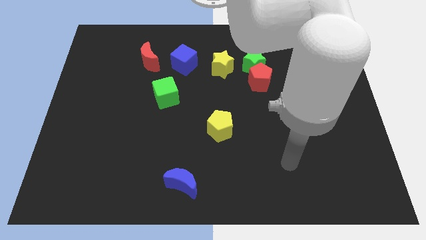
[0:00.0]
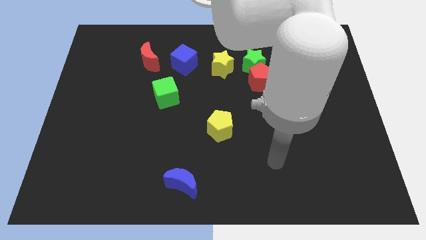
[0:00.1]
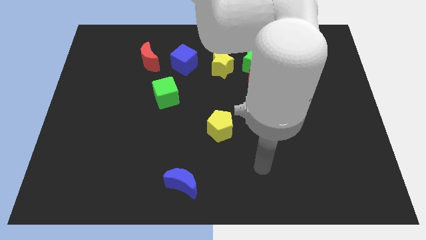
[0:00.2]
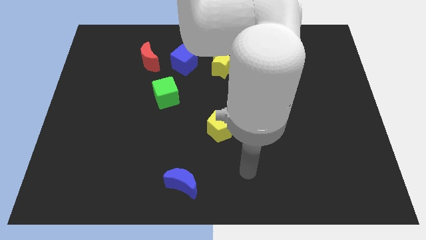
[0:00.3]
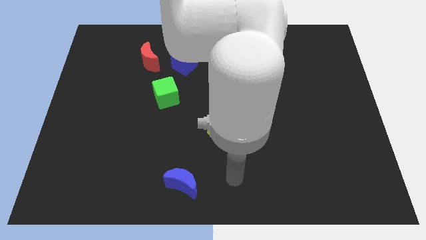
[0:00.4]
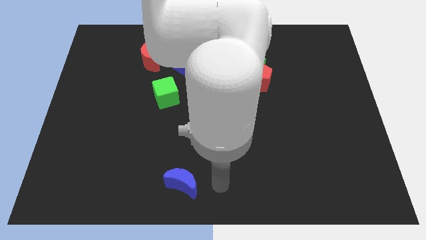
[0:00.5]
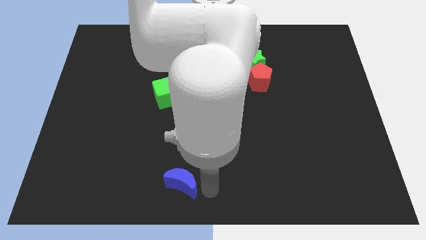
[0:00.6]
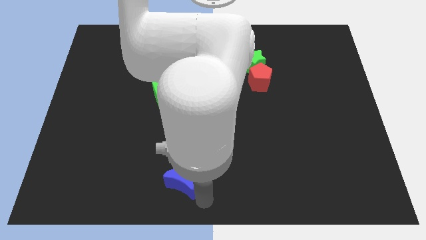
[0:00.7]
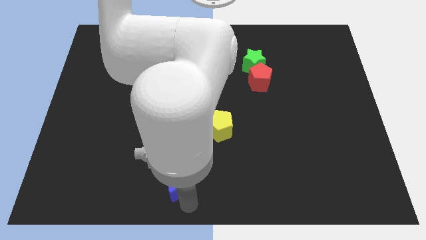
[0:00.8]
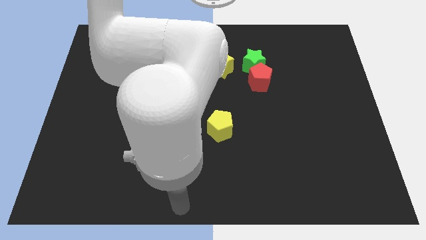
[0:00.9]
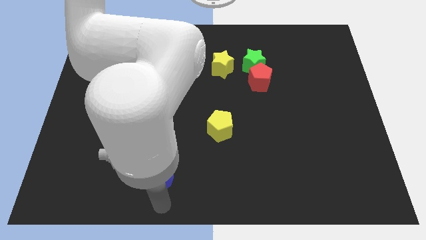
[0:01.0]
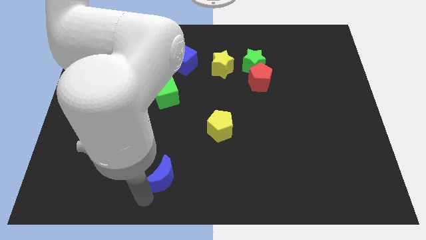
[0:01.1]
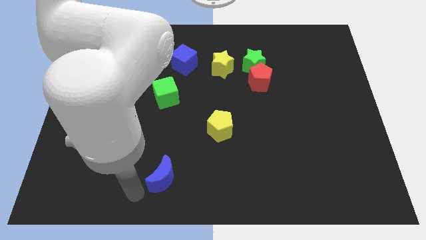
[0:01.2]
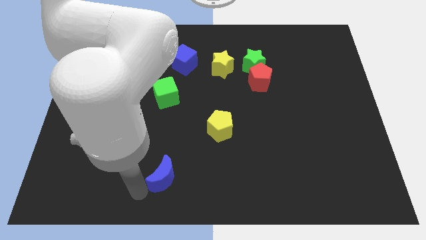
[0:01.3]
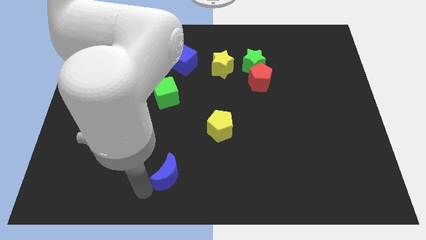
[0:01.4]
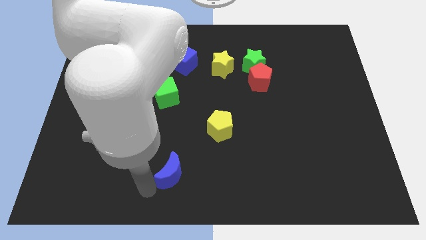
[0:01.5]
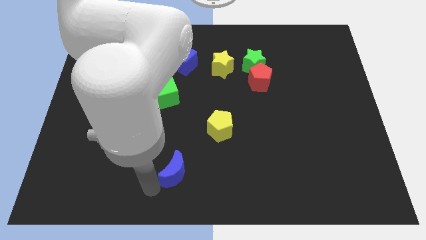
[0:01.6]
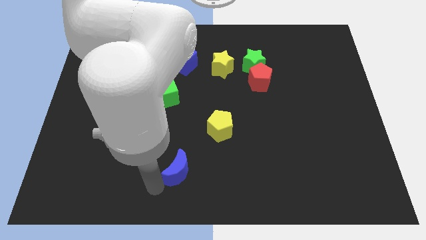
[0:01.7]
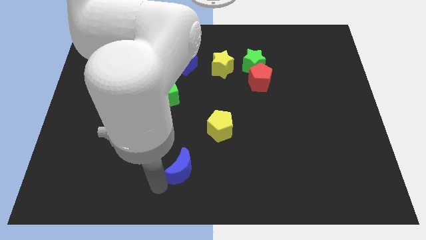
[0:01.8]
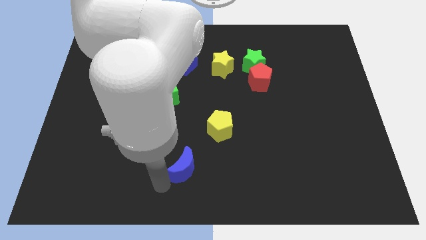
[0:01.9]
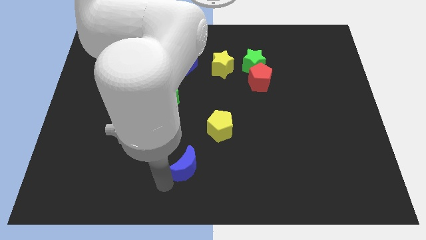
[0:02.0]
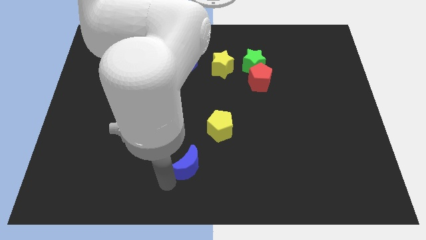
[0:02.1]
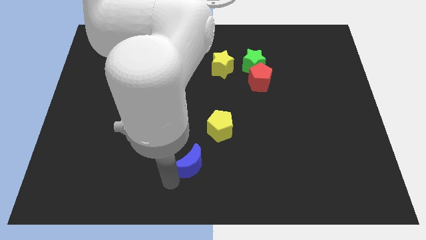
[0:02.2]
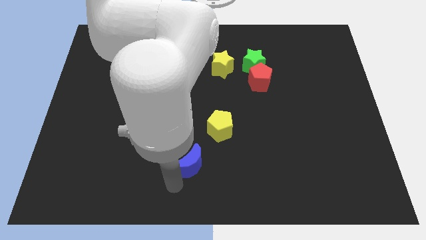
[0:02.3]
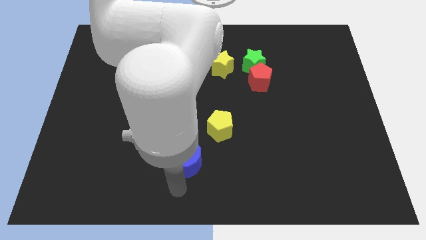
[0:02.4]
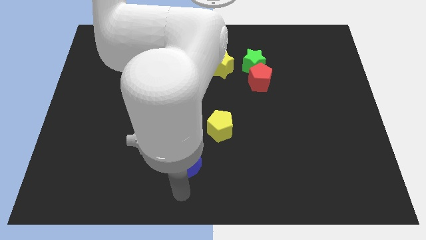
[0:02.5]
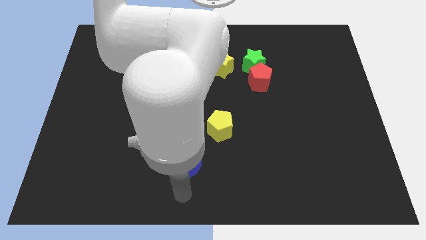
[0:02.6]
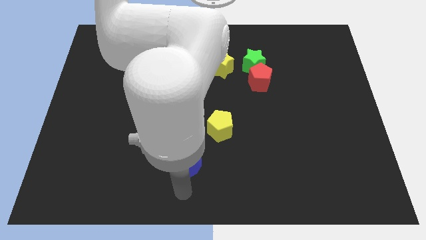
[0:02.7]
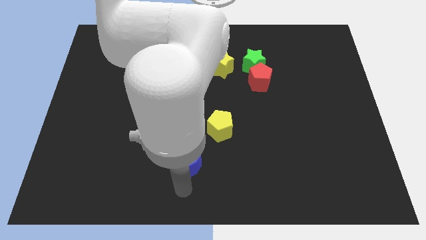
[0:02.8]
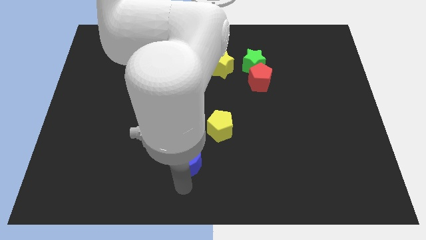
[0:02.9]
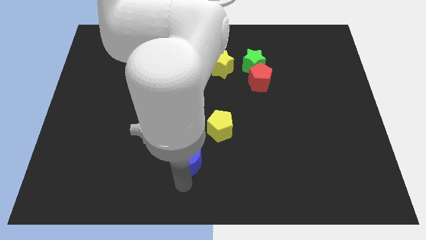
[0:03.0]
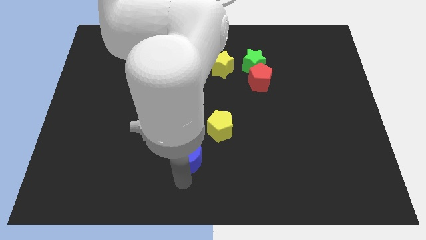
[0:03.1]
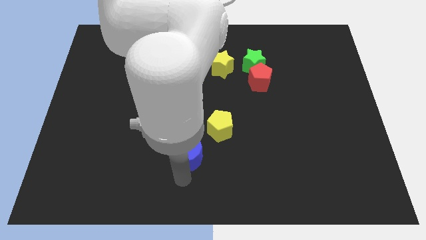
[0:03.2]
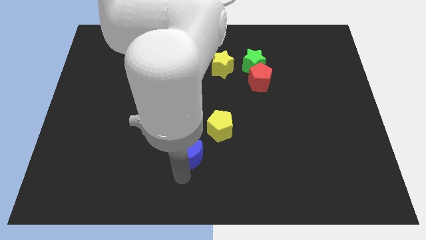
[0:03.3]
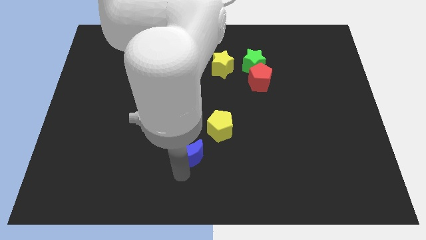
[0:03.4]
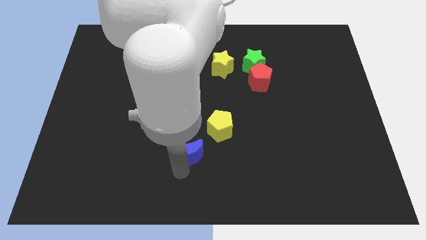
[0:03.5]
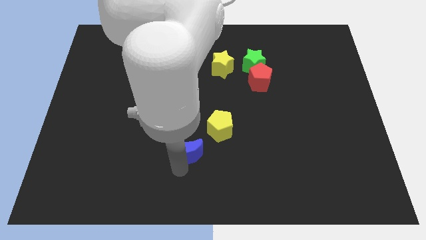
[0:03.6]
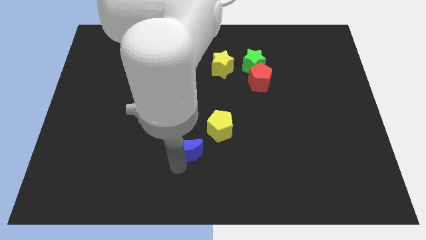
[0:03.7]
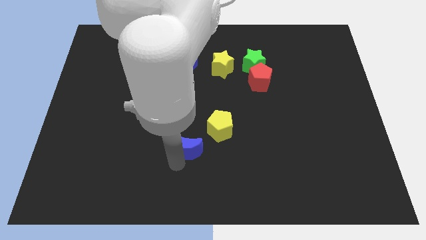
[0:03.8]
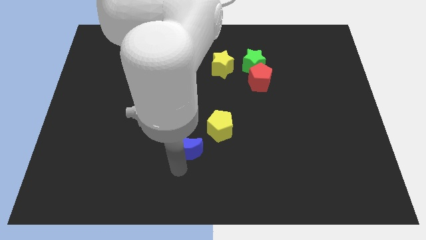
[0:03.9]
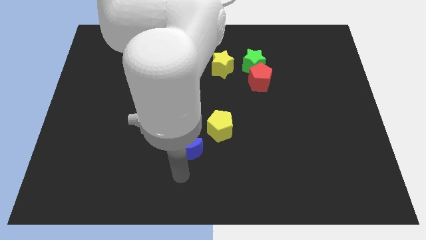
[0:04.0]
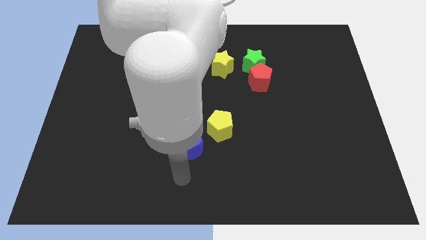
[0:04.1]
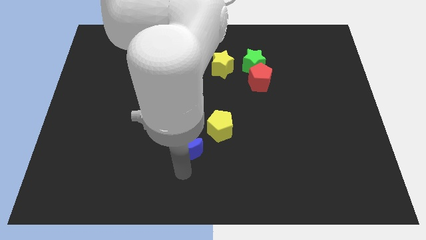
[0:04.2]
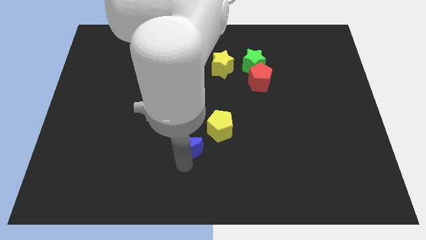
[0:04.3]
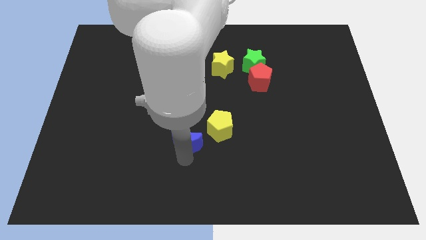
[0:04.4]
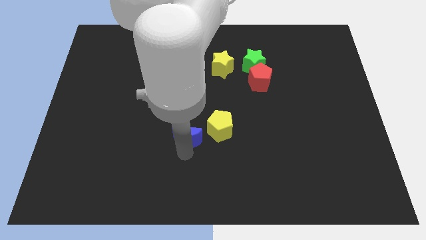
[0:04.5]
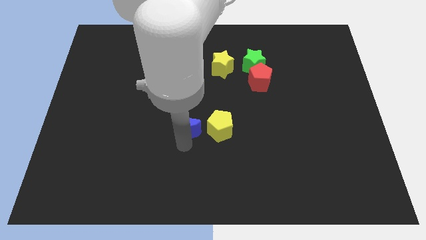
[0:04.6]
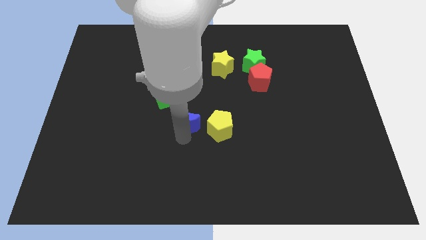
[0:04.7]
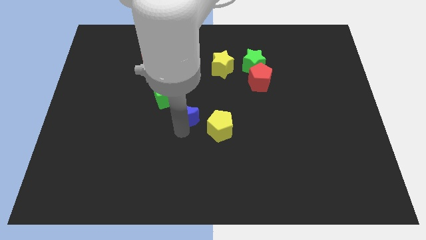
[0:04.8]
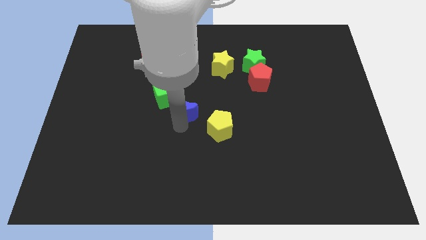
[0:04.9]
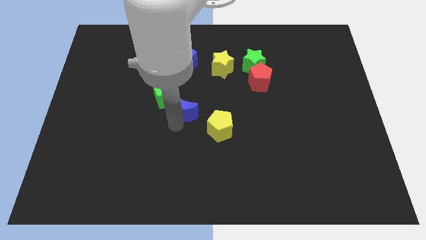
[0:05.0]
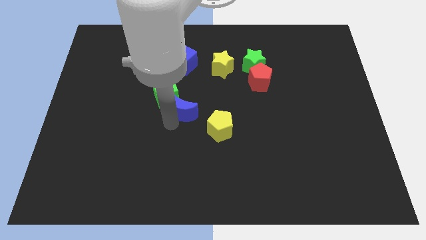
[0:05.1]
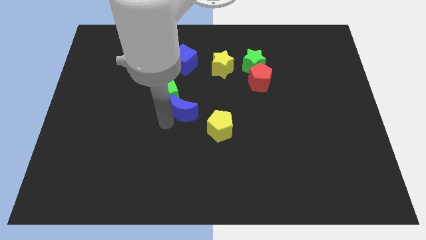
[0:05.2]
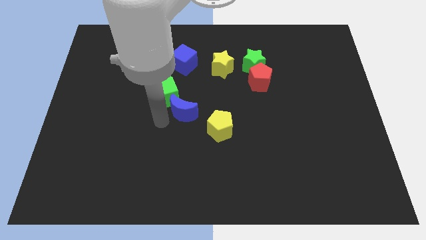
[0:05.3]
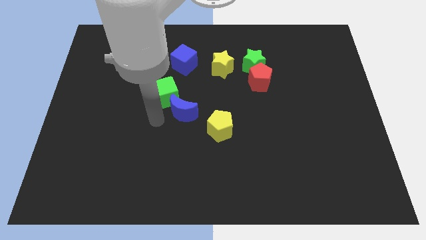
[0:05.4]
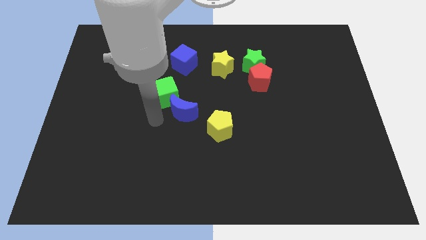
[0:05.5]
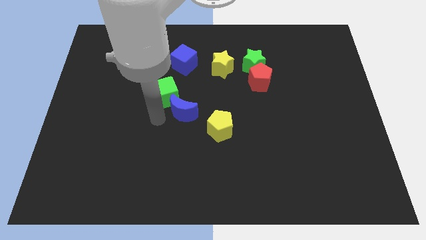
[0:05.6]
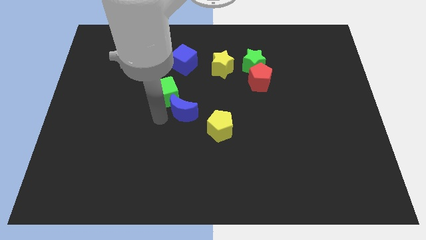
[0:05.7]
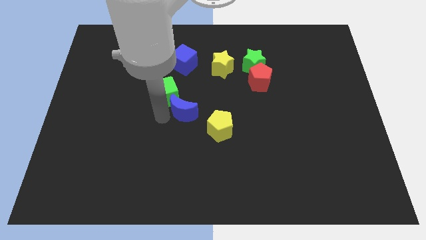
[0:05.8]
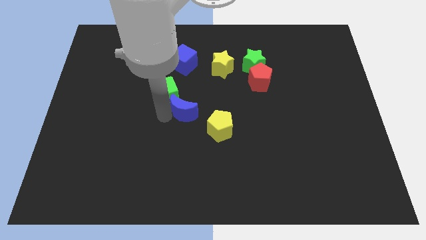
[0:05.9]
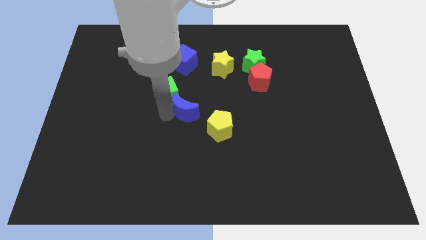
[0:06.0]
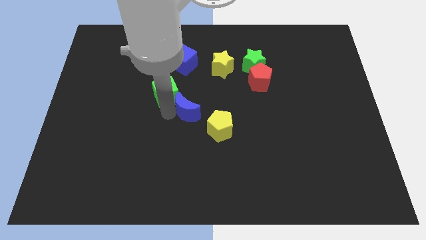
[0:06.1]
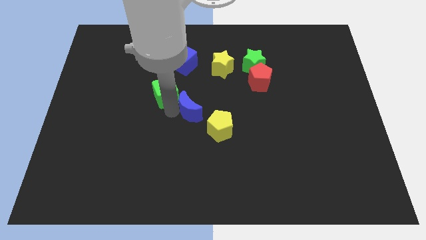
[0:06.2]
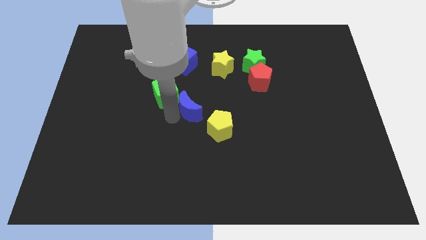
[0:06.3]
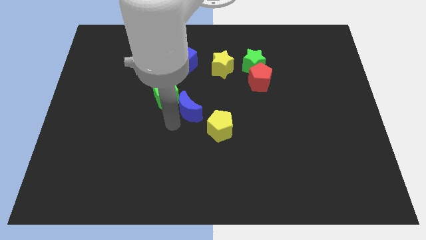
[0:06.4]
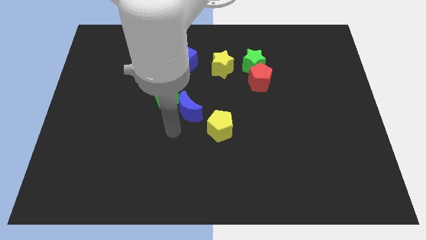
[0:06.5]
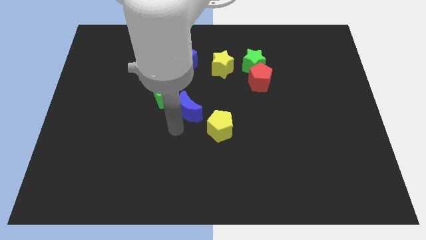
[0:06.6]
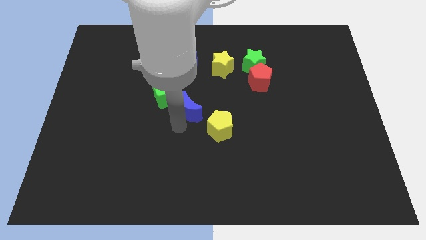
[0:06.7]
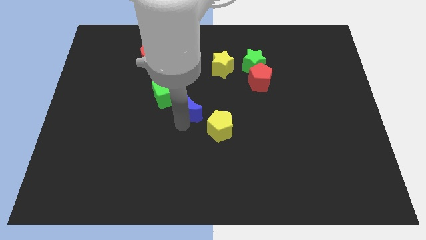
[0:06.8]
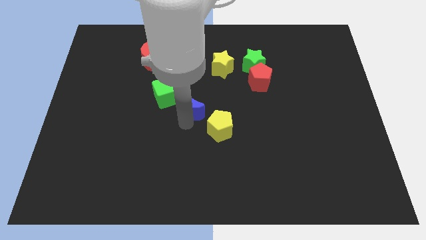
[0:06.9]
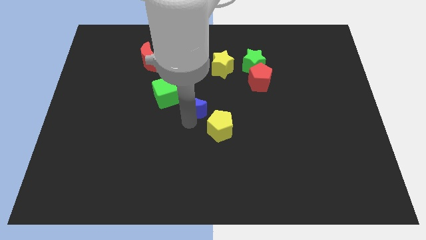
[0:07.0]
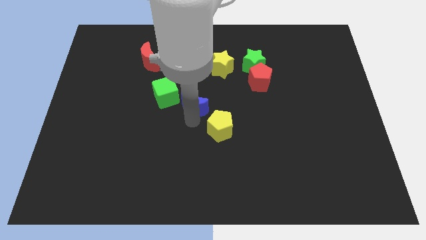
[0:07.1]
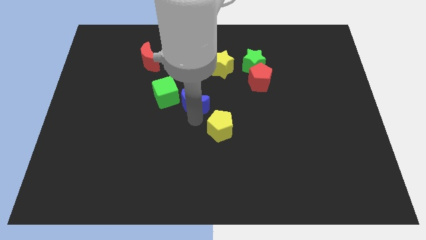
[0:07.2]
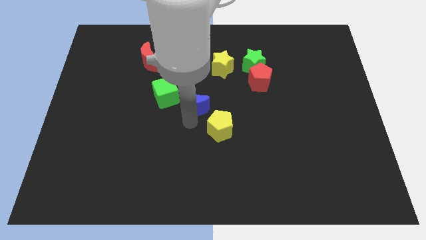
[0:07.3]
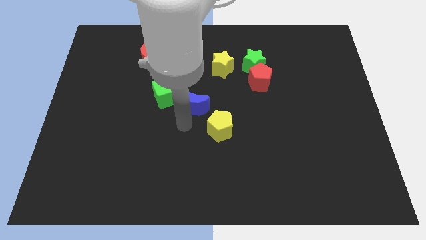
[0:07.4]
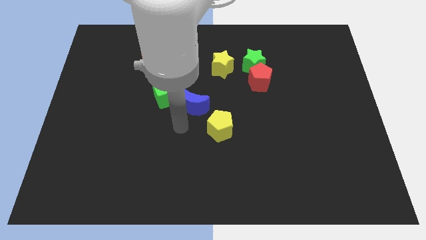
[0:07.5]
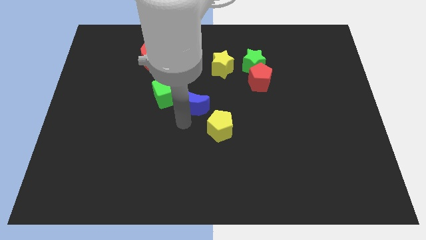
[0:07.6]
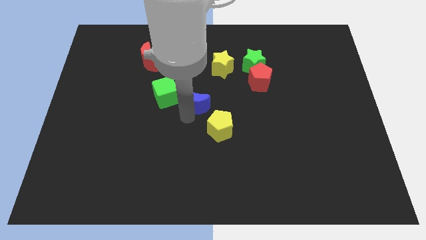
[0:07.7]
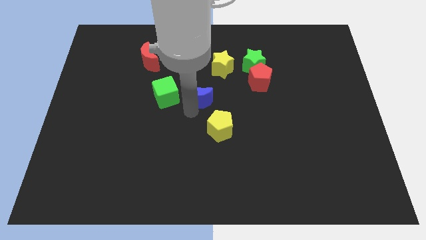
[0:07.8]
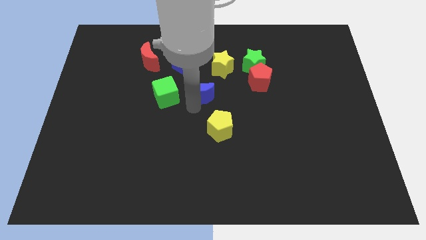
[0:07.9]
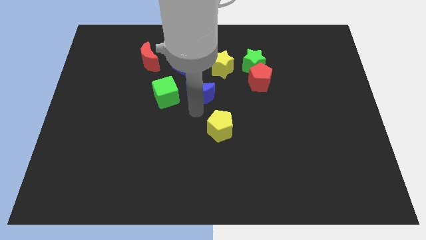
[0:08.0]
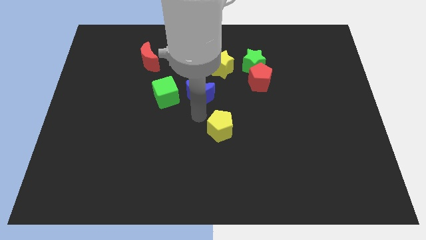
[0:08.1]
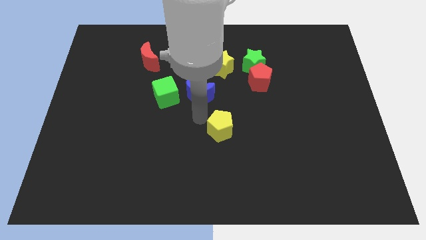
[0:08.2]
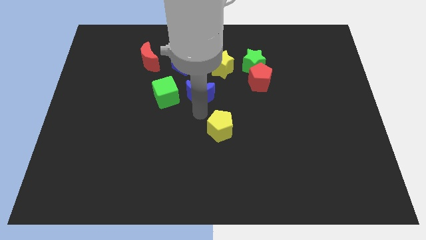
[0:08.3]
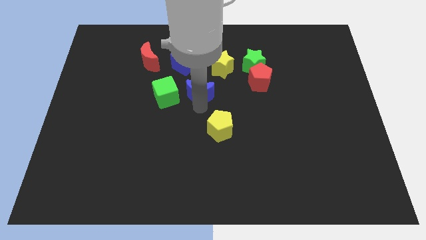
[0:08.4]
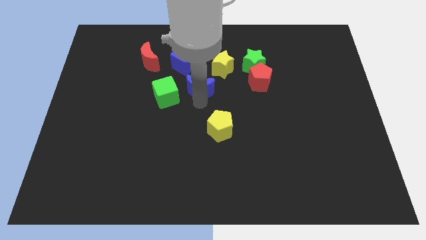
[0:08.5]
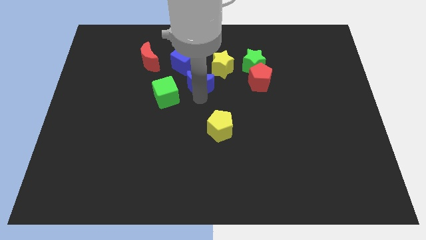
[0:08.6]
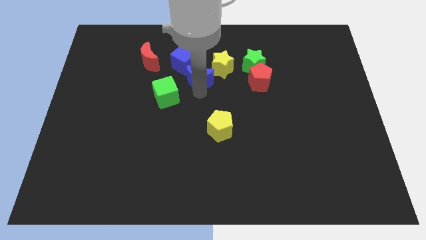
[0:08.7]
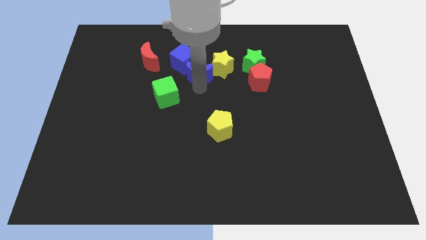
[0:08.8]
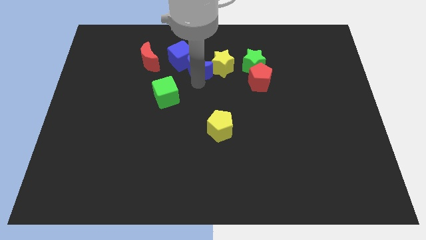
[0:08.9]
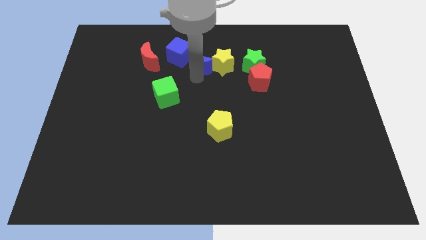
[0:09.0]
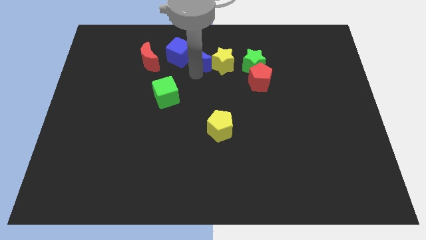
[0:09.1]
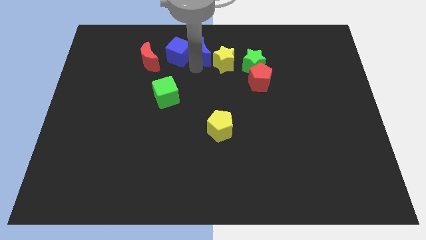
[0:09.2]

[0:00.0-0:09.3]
slide the blue moon to the towards your base
